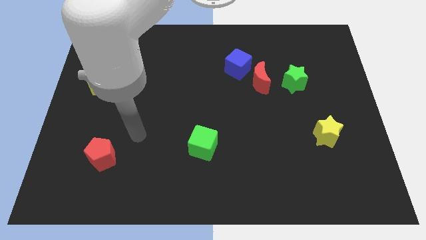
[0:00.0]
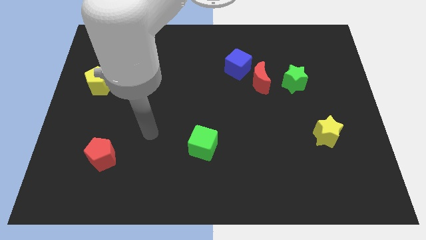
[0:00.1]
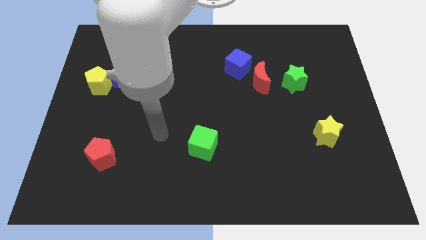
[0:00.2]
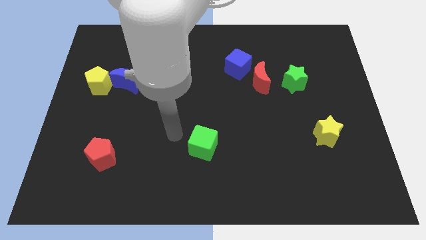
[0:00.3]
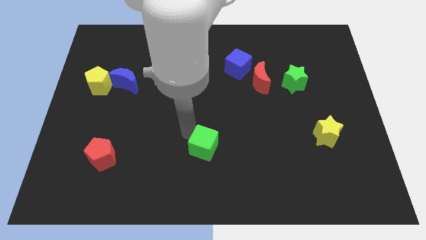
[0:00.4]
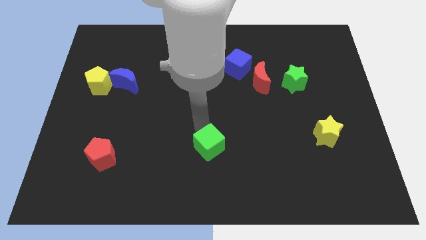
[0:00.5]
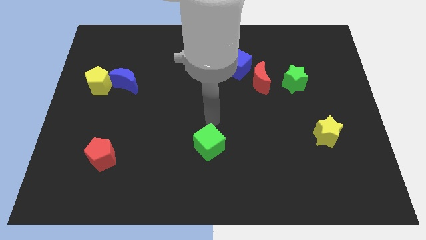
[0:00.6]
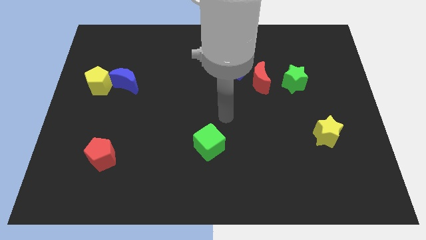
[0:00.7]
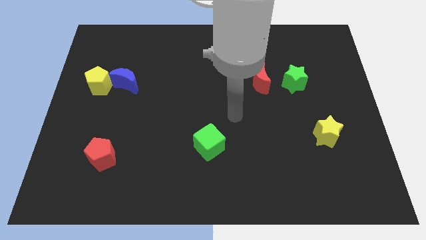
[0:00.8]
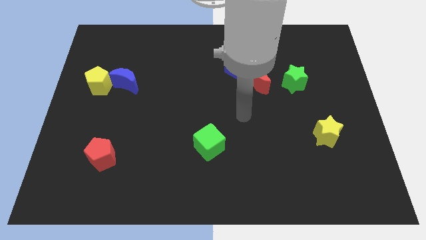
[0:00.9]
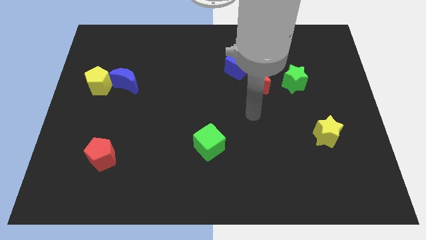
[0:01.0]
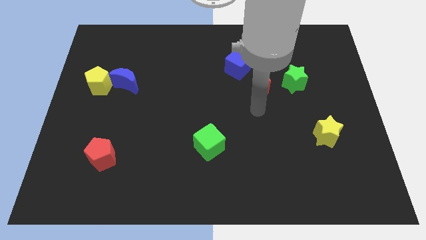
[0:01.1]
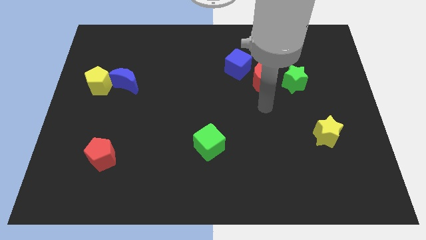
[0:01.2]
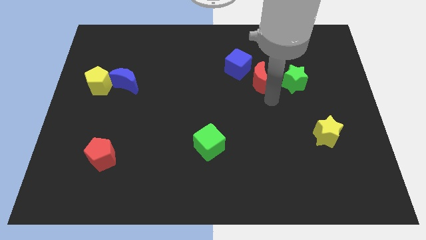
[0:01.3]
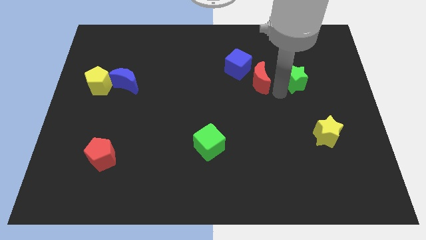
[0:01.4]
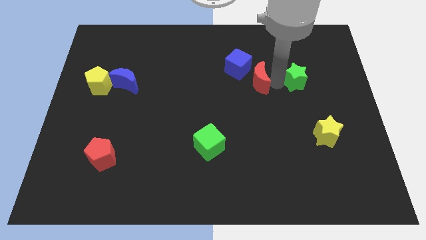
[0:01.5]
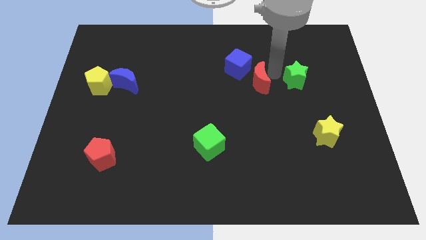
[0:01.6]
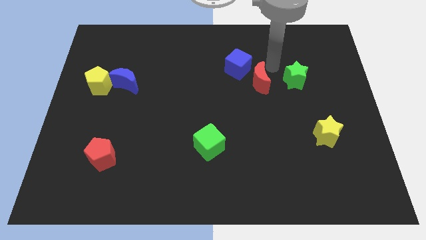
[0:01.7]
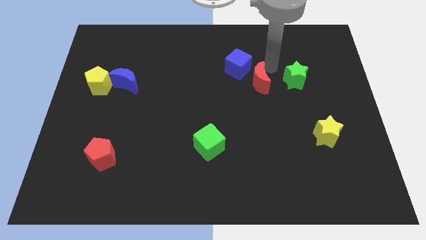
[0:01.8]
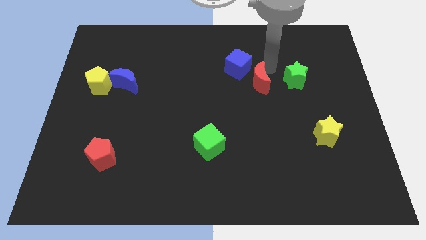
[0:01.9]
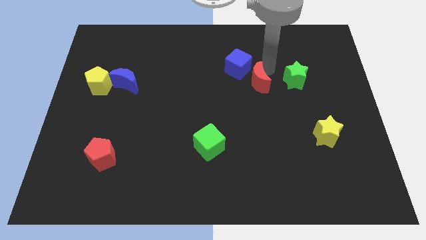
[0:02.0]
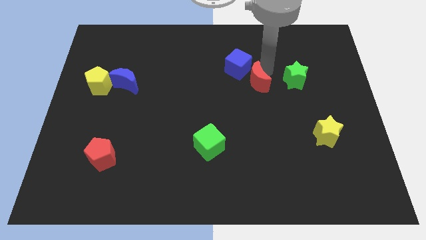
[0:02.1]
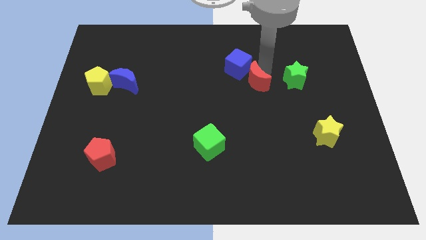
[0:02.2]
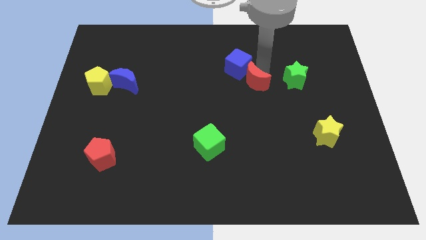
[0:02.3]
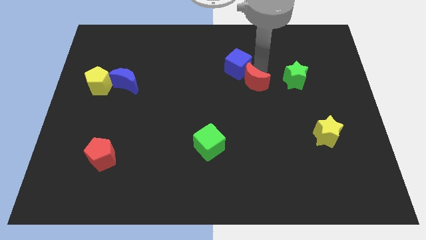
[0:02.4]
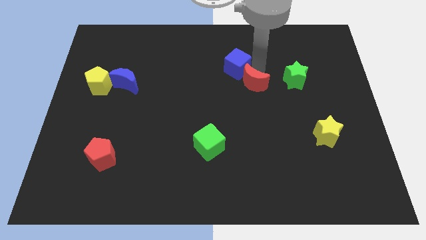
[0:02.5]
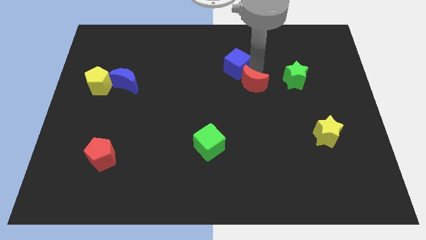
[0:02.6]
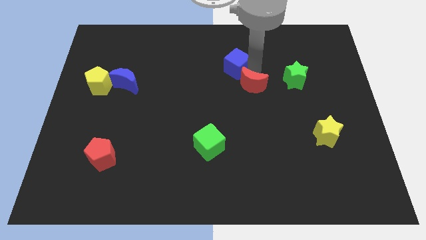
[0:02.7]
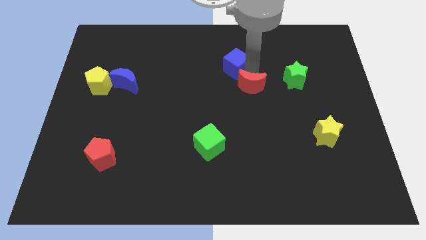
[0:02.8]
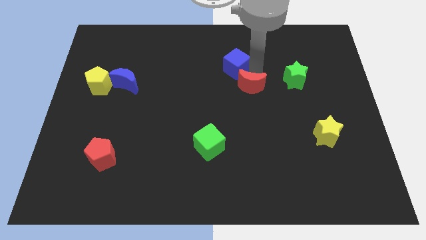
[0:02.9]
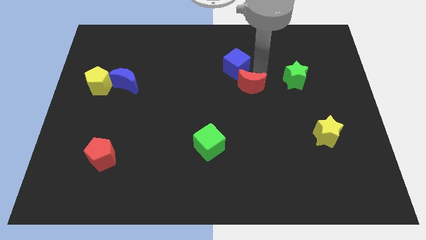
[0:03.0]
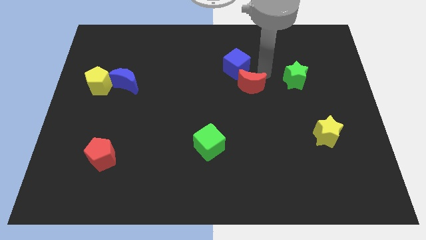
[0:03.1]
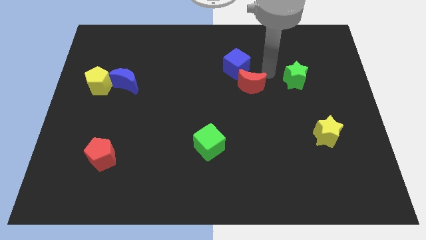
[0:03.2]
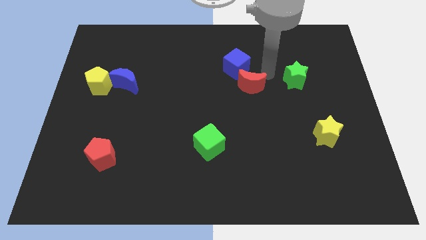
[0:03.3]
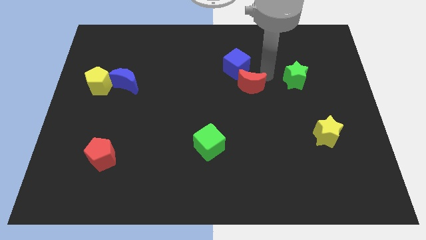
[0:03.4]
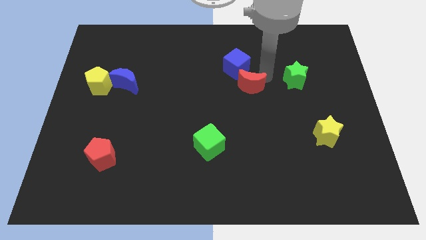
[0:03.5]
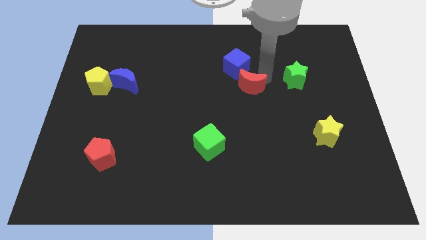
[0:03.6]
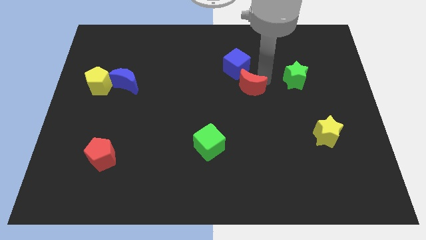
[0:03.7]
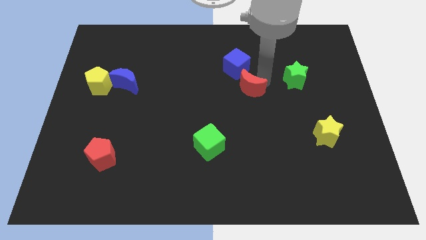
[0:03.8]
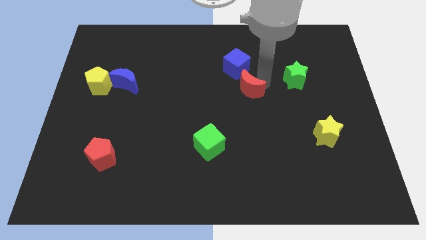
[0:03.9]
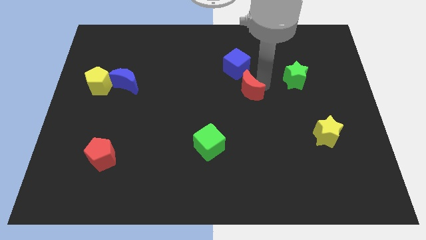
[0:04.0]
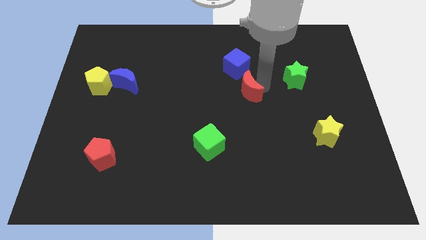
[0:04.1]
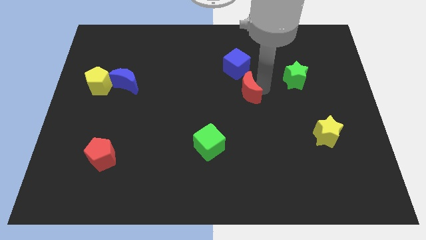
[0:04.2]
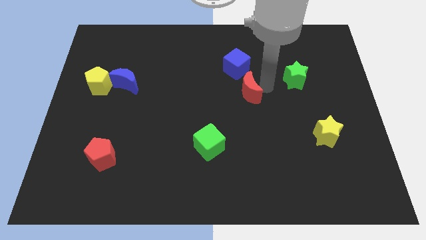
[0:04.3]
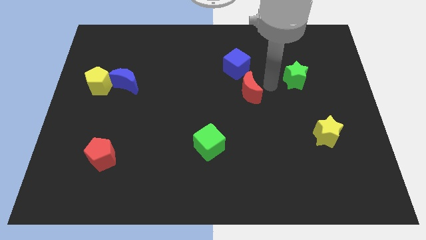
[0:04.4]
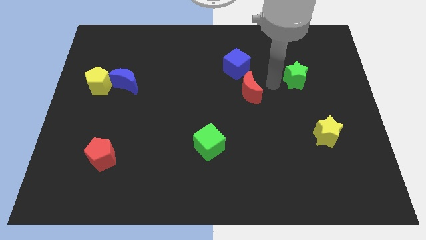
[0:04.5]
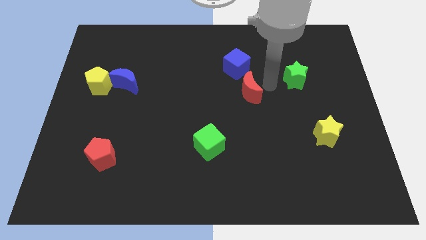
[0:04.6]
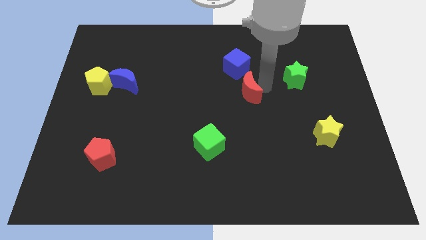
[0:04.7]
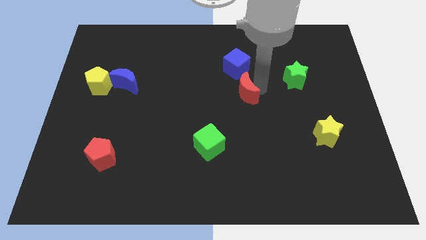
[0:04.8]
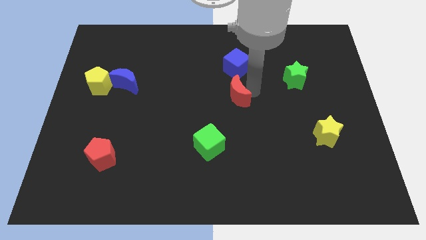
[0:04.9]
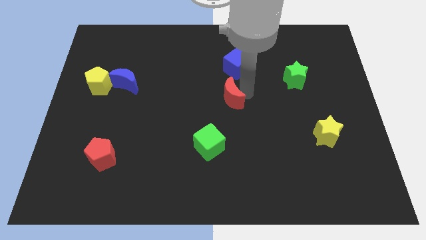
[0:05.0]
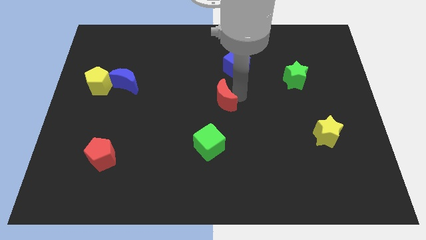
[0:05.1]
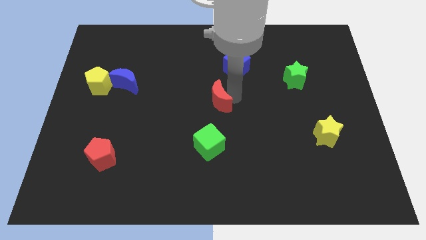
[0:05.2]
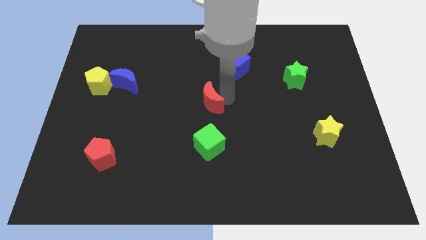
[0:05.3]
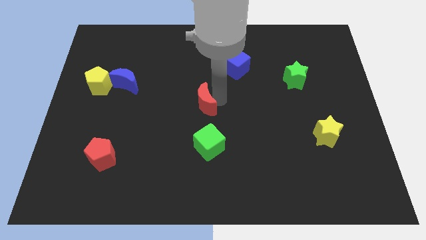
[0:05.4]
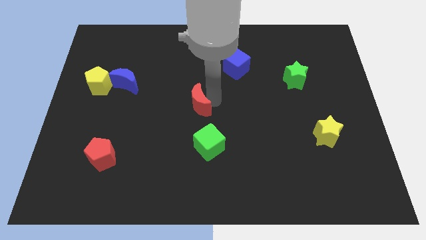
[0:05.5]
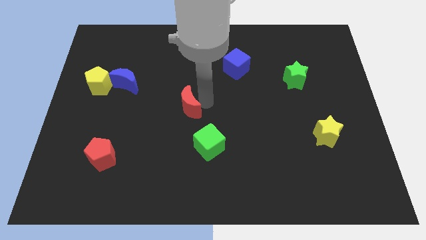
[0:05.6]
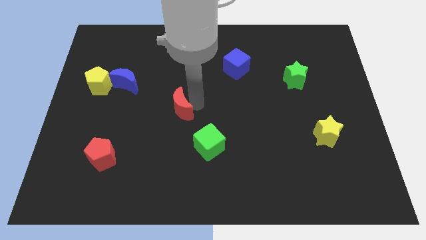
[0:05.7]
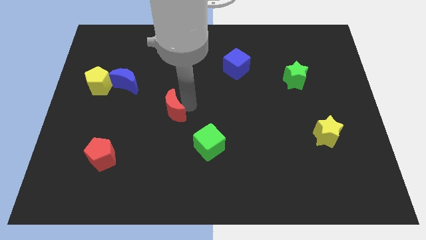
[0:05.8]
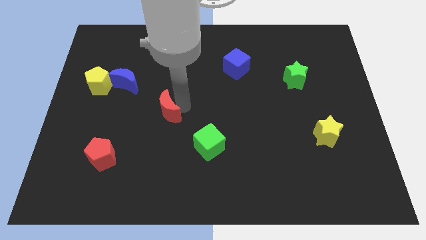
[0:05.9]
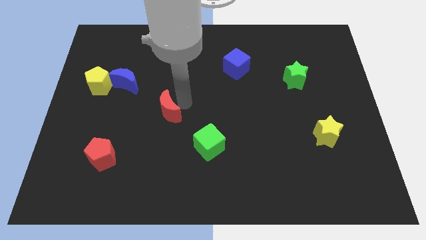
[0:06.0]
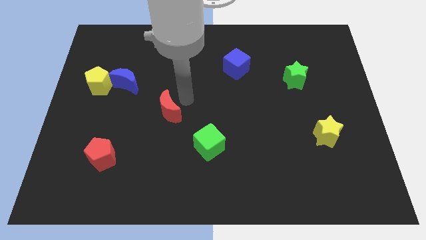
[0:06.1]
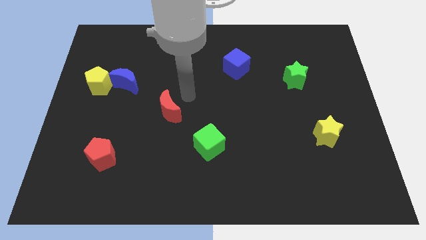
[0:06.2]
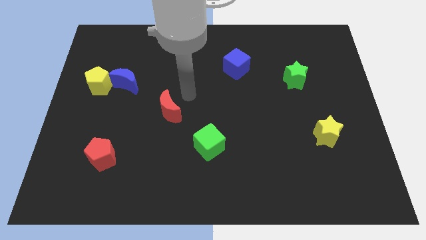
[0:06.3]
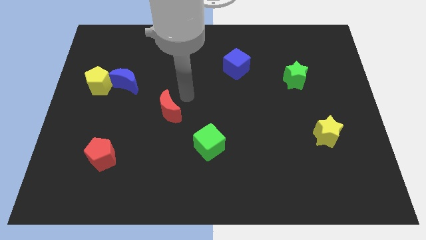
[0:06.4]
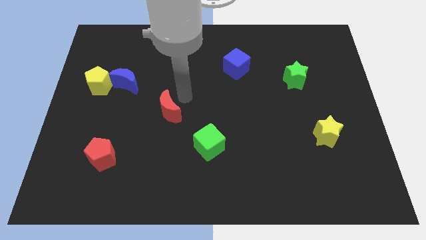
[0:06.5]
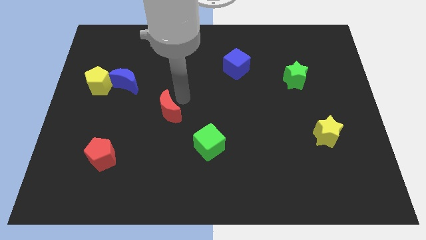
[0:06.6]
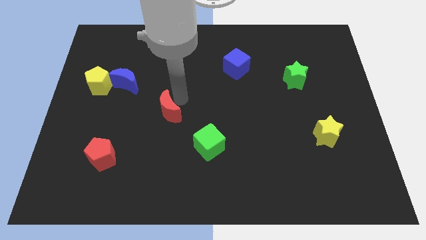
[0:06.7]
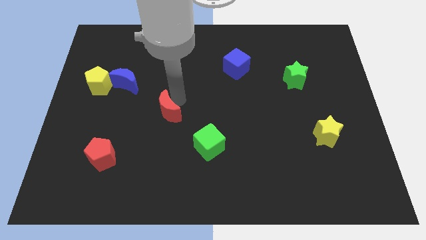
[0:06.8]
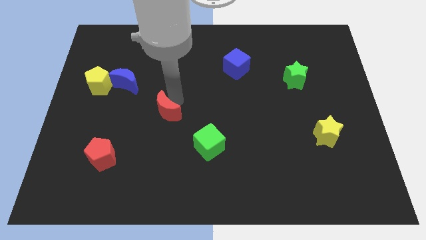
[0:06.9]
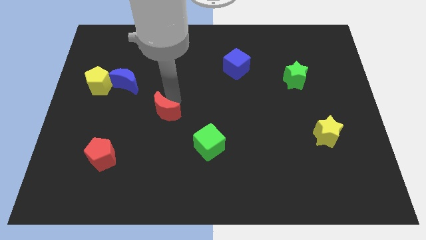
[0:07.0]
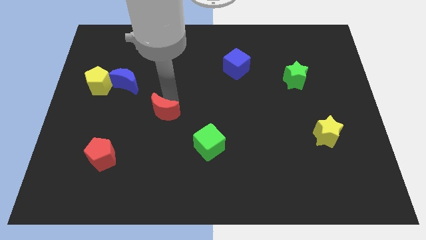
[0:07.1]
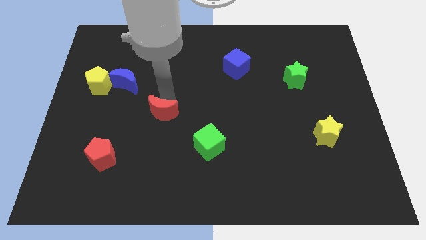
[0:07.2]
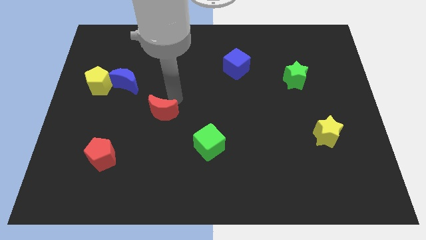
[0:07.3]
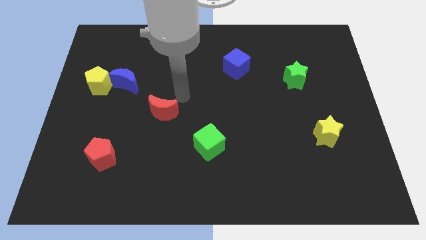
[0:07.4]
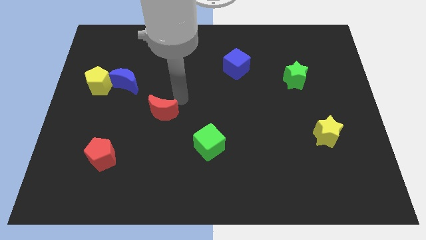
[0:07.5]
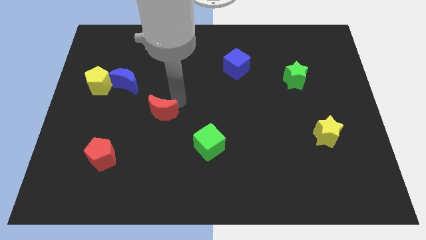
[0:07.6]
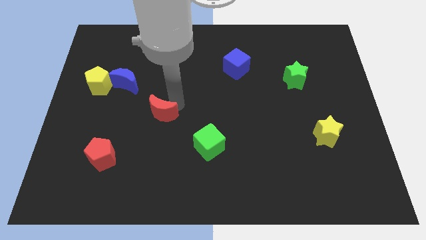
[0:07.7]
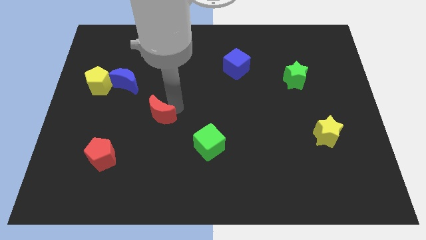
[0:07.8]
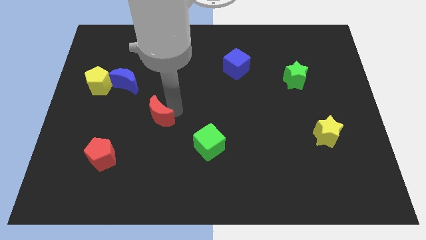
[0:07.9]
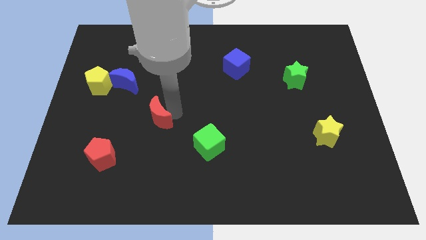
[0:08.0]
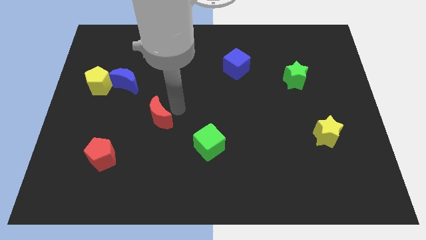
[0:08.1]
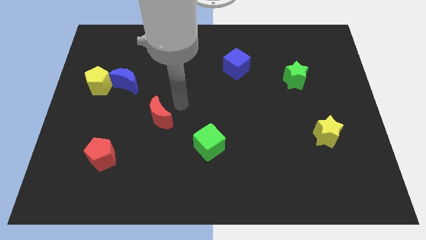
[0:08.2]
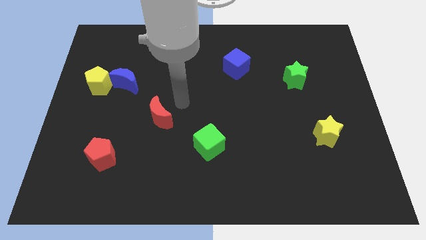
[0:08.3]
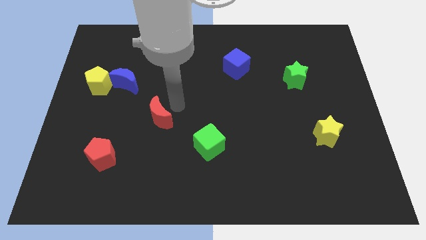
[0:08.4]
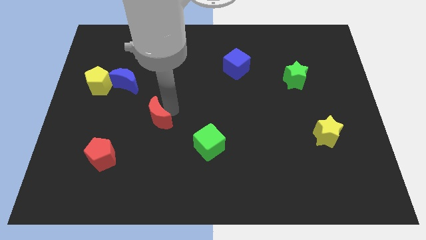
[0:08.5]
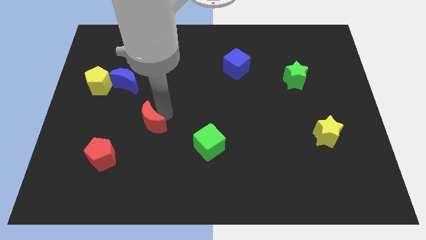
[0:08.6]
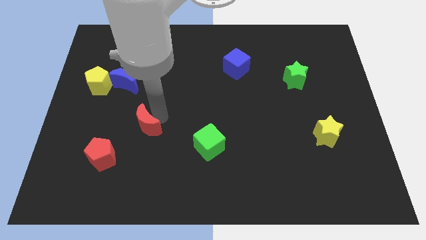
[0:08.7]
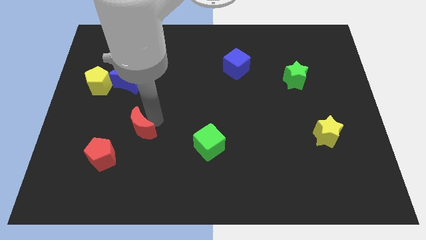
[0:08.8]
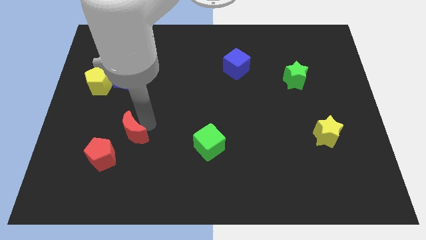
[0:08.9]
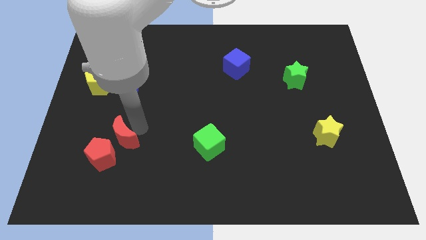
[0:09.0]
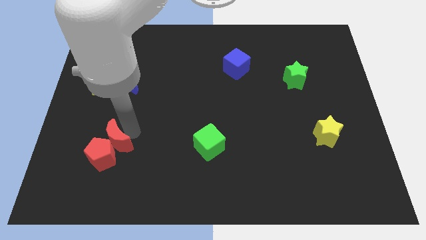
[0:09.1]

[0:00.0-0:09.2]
move the red moon towards the red pentagon
